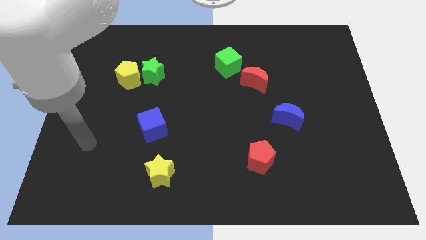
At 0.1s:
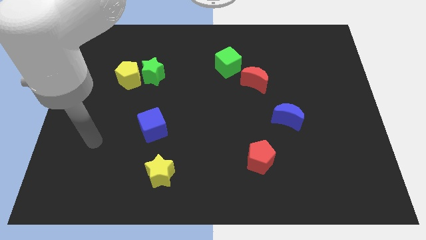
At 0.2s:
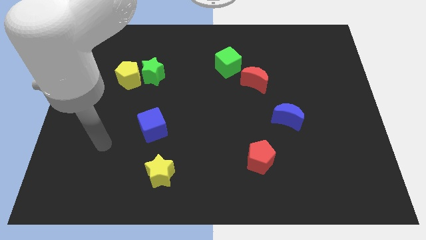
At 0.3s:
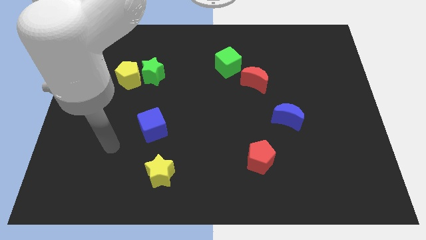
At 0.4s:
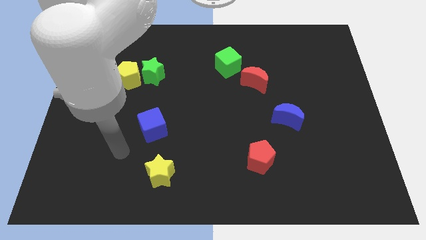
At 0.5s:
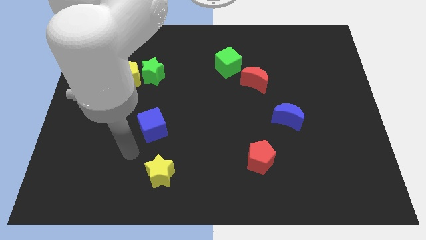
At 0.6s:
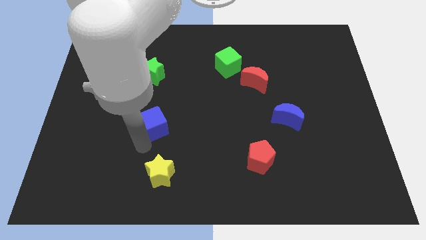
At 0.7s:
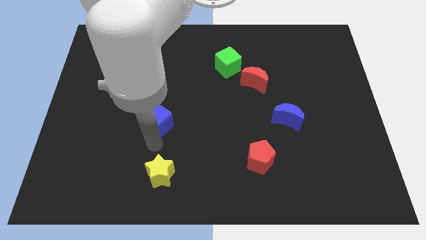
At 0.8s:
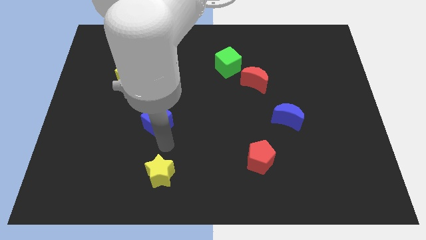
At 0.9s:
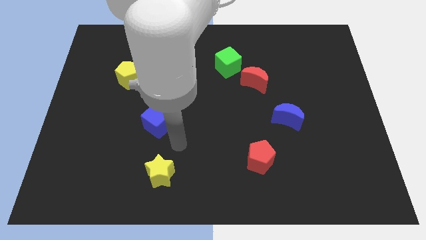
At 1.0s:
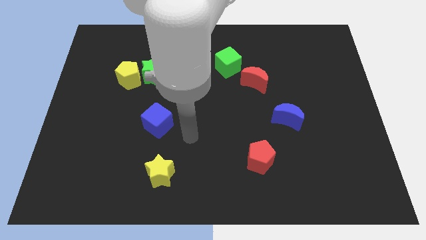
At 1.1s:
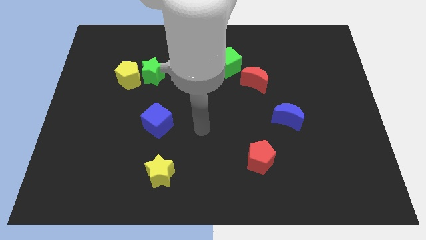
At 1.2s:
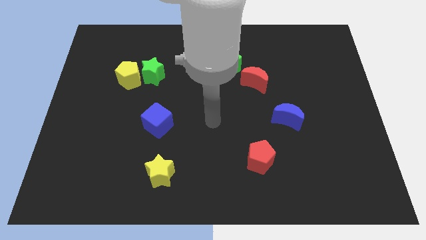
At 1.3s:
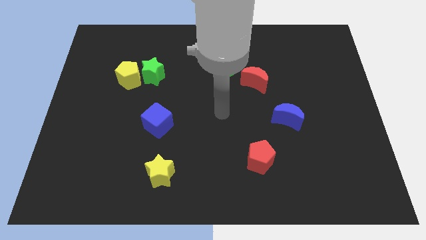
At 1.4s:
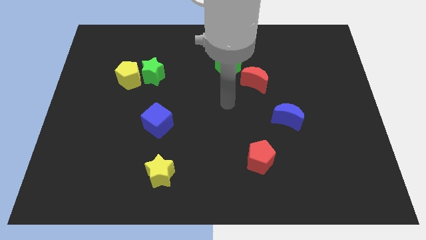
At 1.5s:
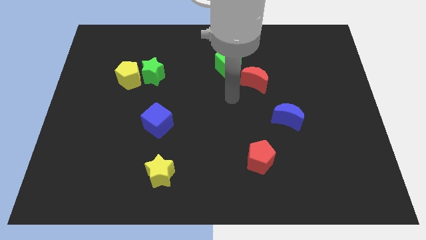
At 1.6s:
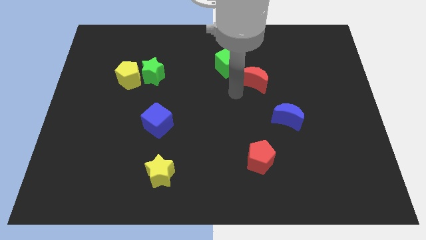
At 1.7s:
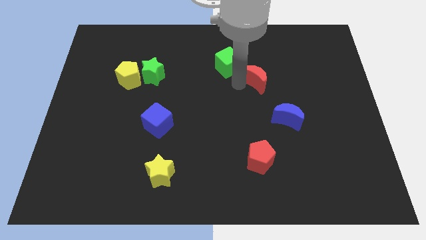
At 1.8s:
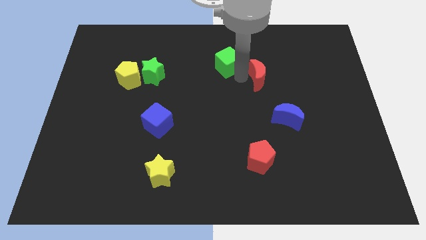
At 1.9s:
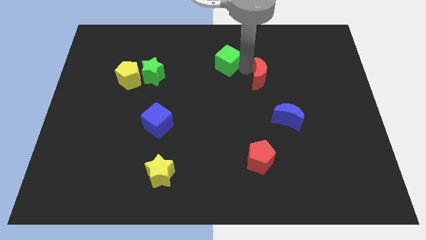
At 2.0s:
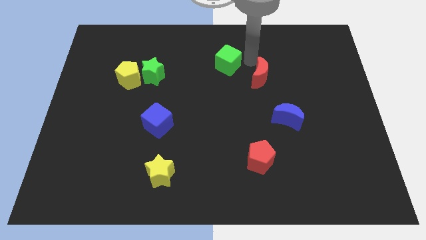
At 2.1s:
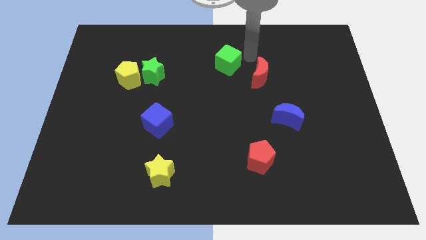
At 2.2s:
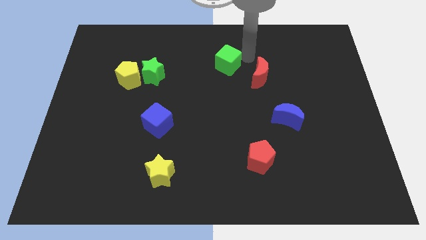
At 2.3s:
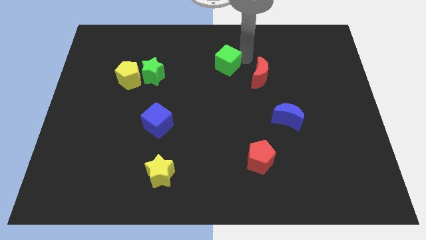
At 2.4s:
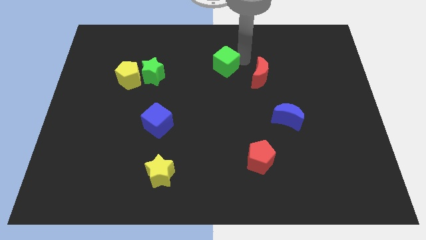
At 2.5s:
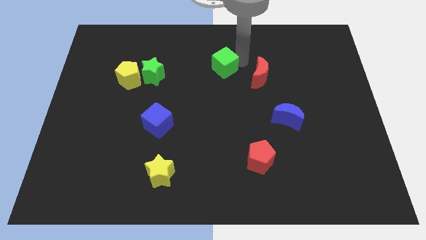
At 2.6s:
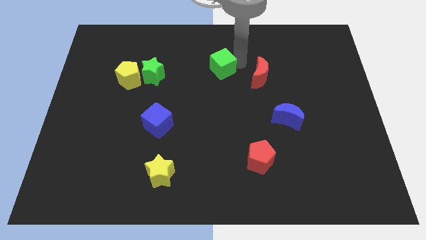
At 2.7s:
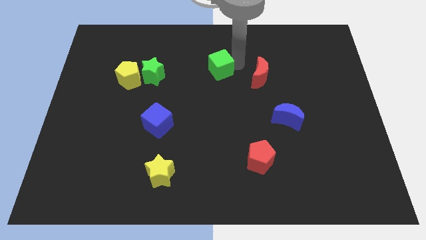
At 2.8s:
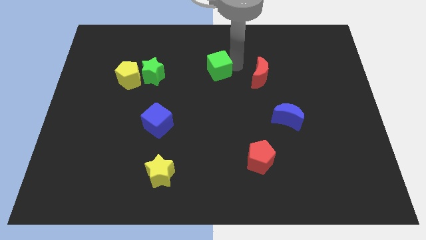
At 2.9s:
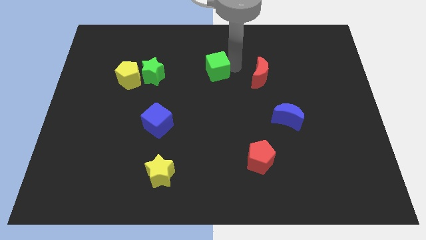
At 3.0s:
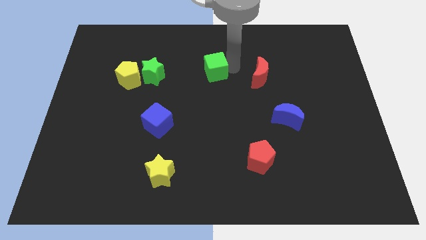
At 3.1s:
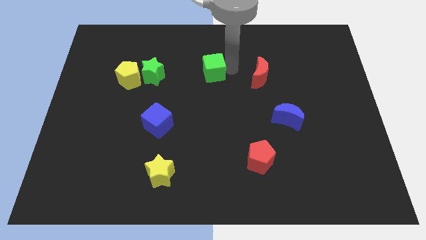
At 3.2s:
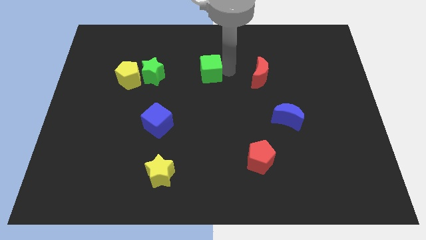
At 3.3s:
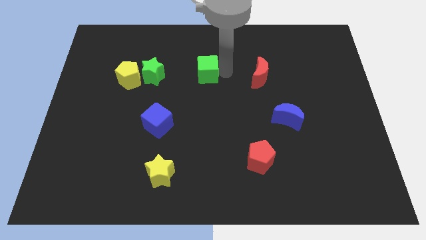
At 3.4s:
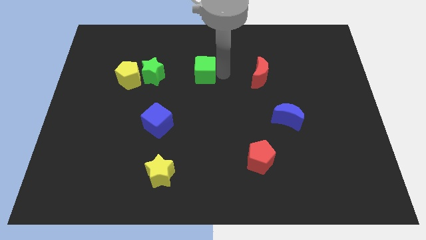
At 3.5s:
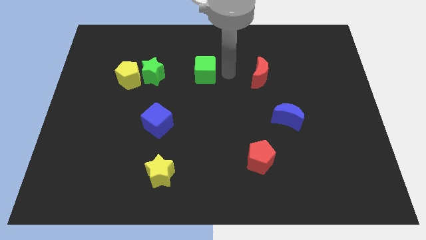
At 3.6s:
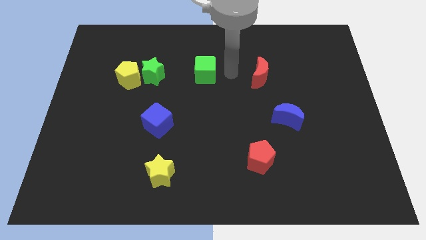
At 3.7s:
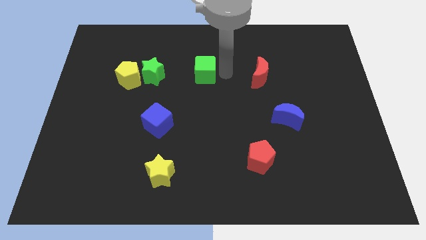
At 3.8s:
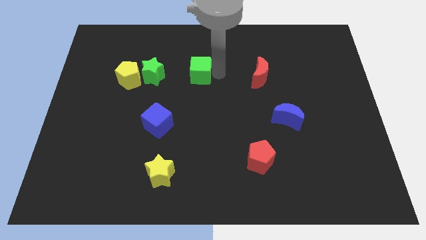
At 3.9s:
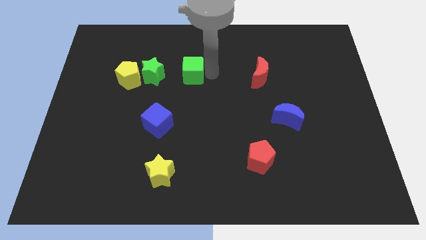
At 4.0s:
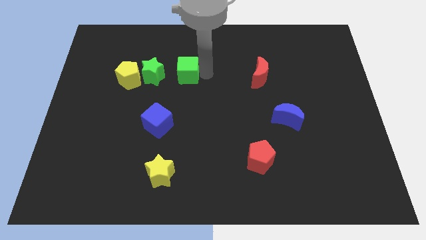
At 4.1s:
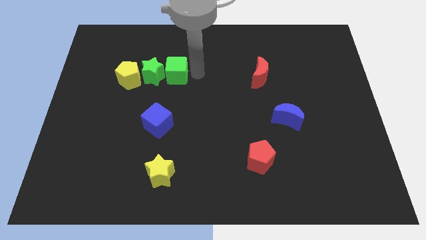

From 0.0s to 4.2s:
slide the green cube to the green star
